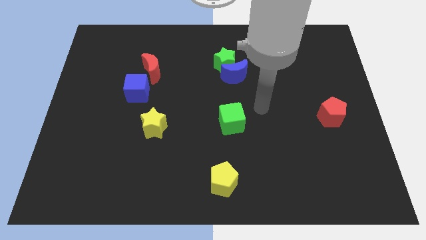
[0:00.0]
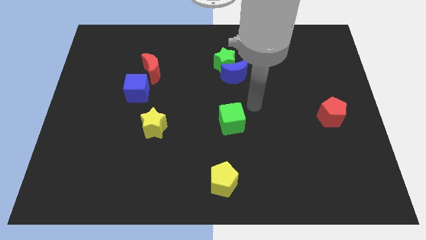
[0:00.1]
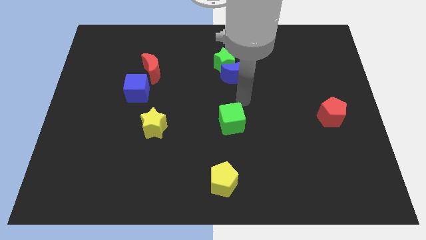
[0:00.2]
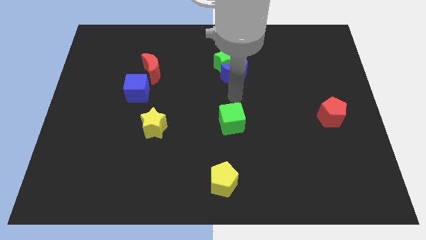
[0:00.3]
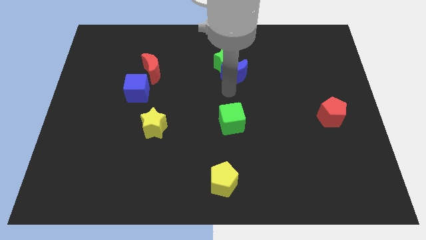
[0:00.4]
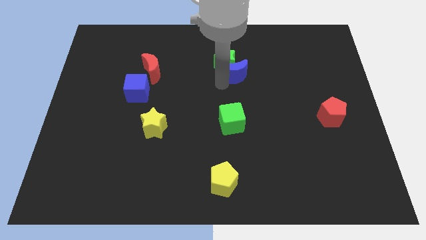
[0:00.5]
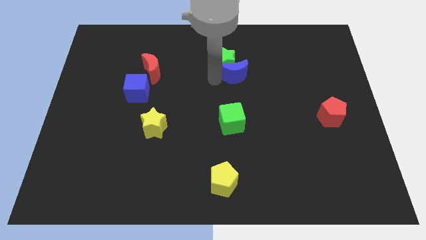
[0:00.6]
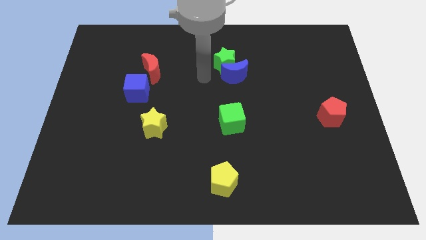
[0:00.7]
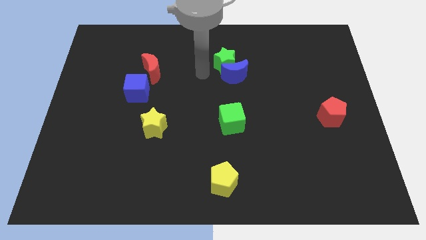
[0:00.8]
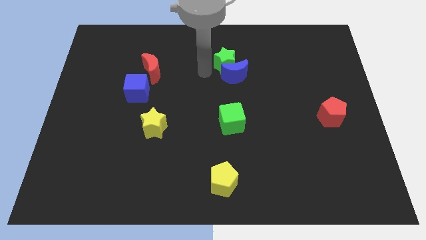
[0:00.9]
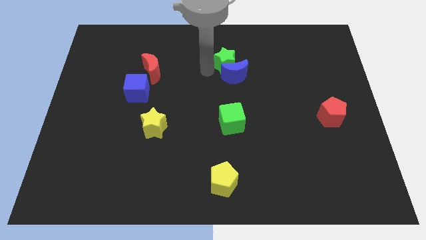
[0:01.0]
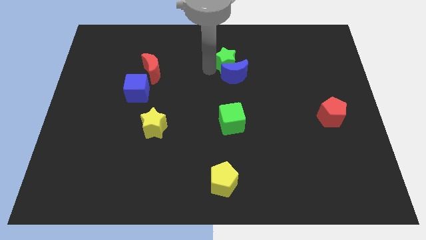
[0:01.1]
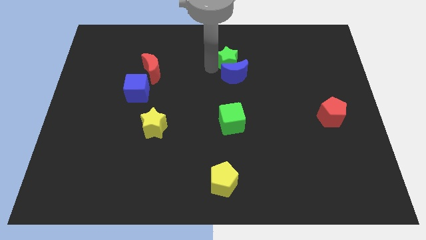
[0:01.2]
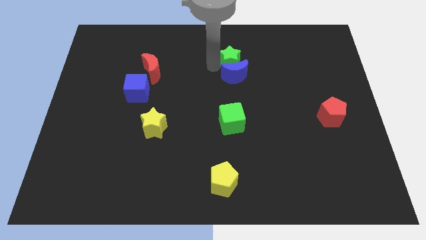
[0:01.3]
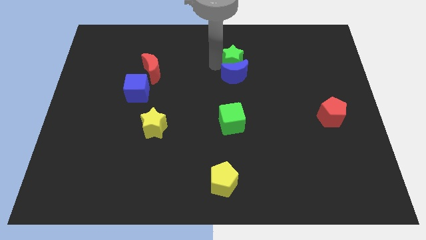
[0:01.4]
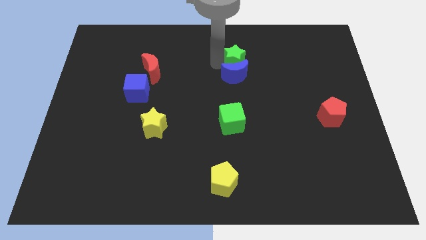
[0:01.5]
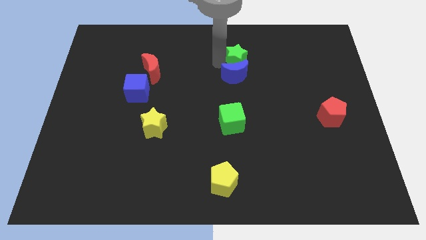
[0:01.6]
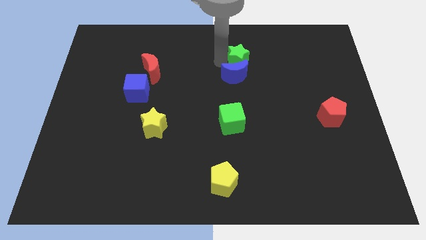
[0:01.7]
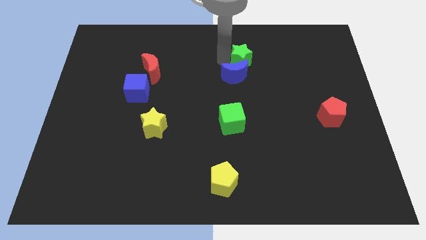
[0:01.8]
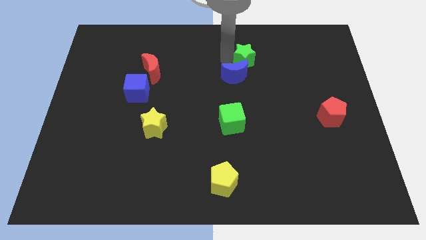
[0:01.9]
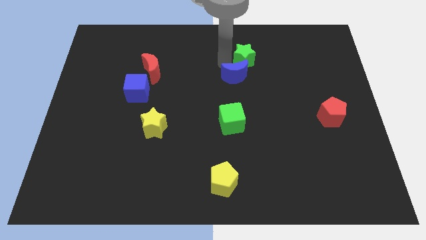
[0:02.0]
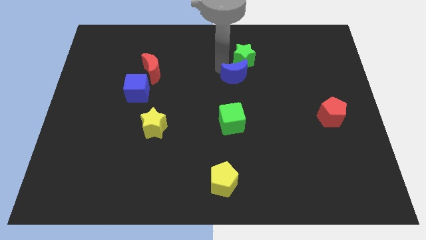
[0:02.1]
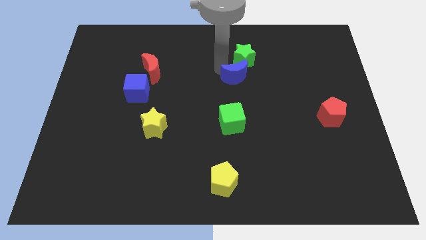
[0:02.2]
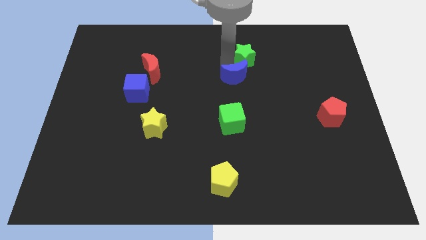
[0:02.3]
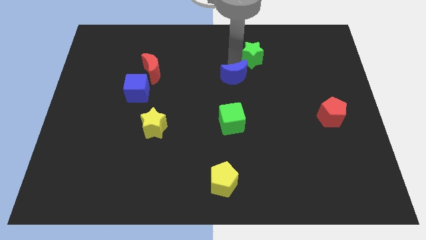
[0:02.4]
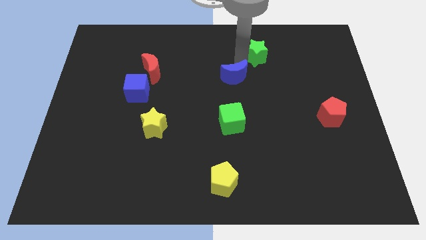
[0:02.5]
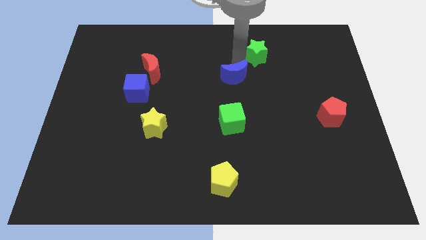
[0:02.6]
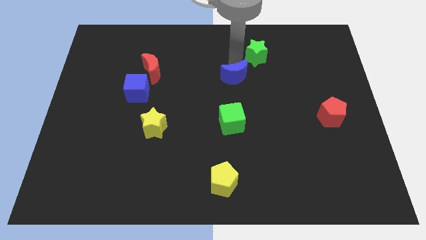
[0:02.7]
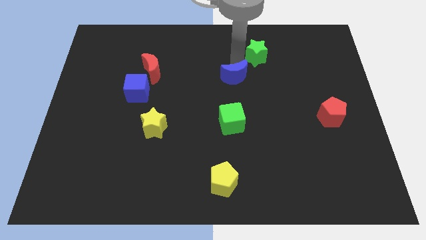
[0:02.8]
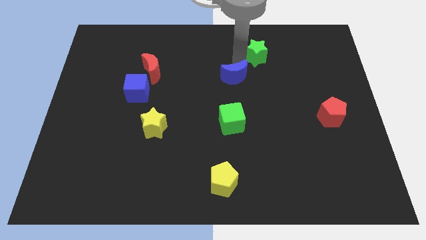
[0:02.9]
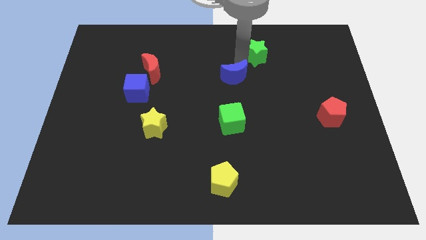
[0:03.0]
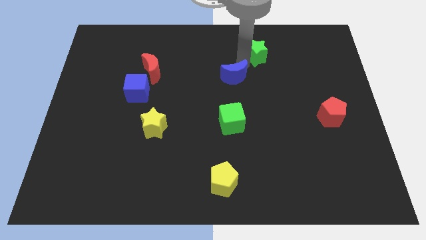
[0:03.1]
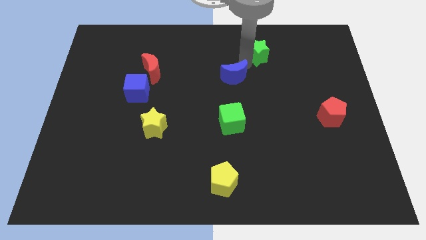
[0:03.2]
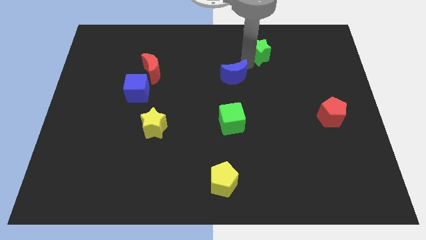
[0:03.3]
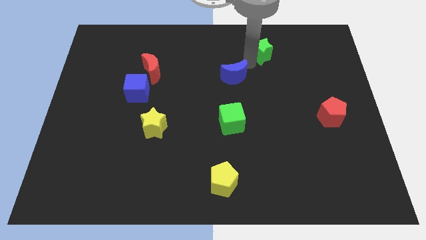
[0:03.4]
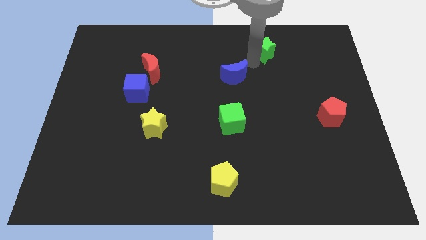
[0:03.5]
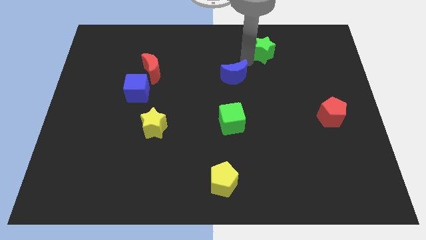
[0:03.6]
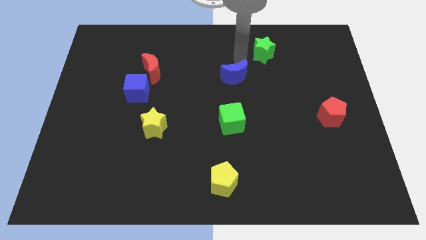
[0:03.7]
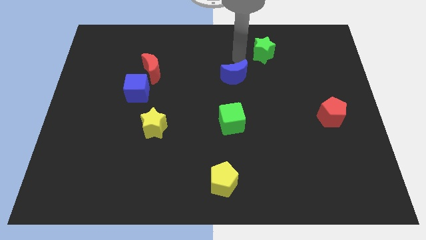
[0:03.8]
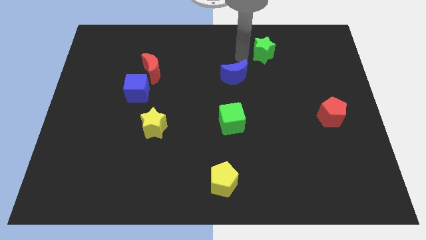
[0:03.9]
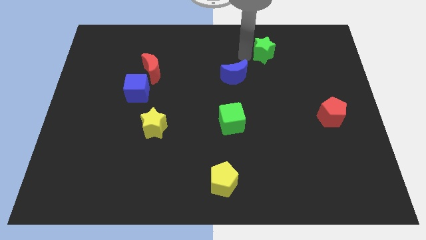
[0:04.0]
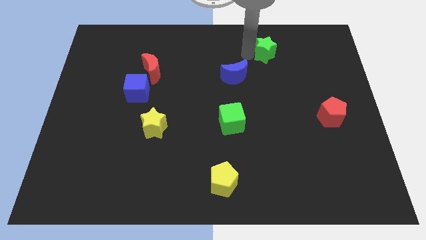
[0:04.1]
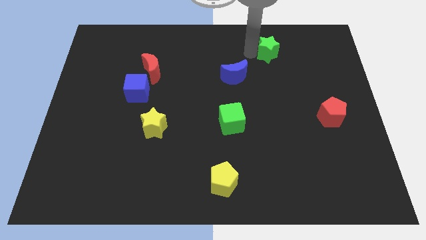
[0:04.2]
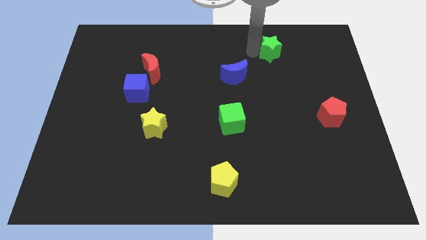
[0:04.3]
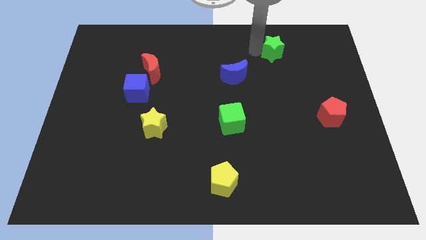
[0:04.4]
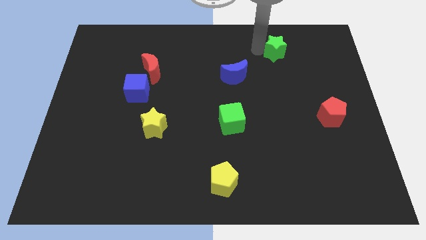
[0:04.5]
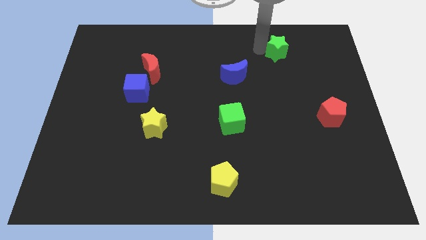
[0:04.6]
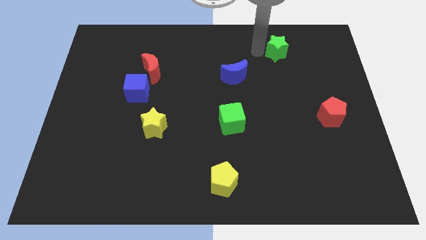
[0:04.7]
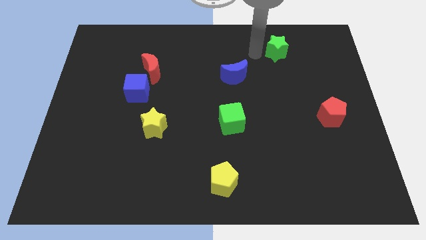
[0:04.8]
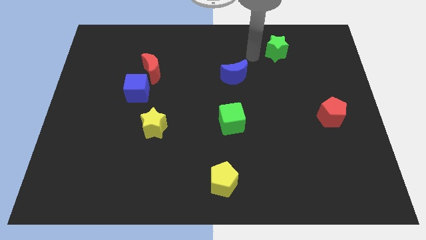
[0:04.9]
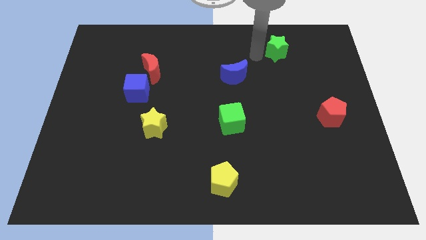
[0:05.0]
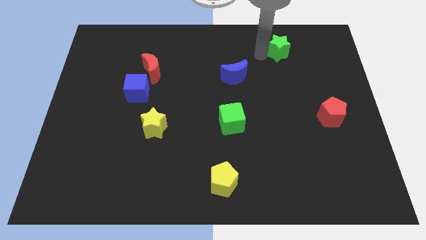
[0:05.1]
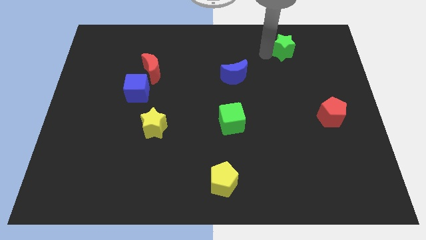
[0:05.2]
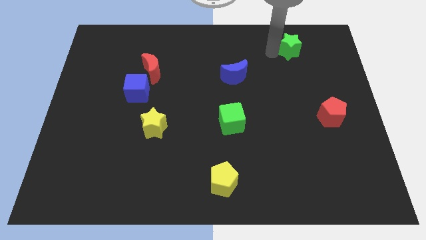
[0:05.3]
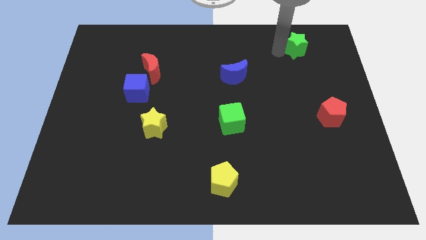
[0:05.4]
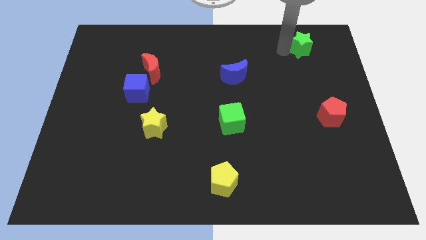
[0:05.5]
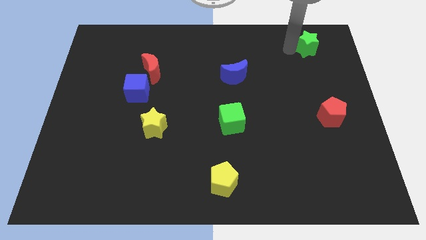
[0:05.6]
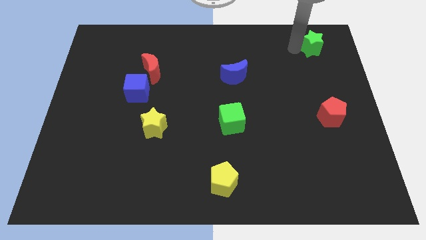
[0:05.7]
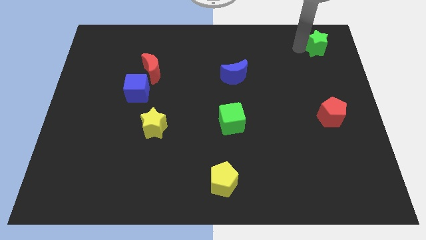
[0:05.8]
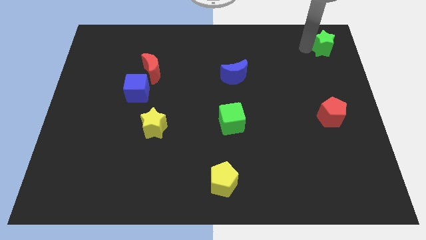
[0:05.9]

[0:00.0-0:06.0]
push the green star to the top right of the board

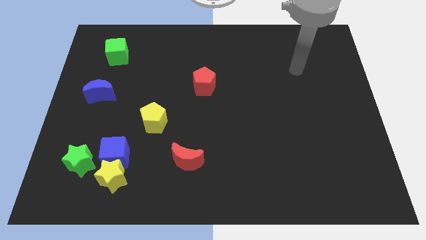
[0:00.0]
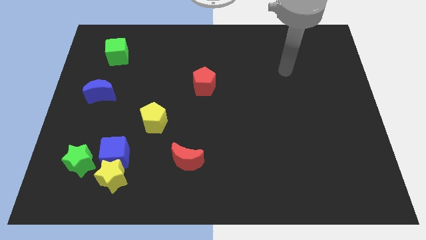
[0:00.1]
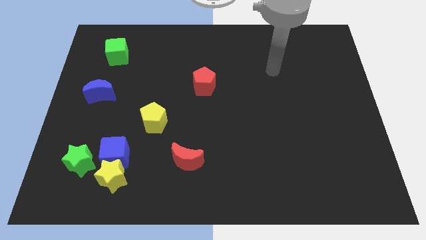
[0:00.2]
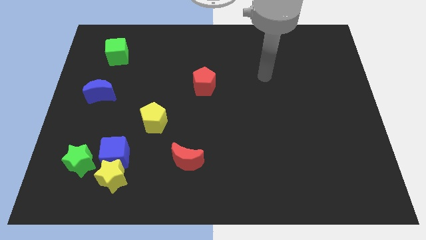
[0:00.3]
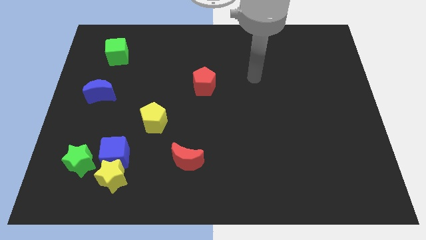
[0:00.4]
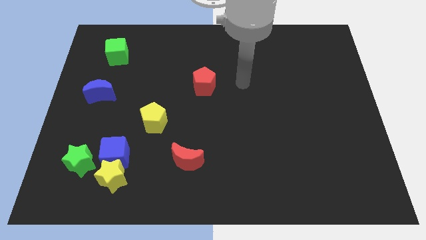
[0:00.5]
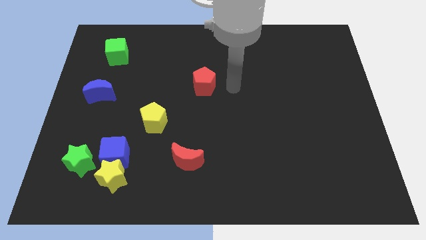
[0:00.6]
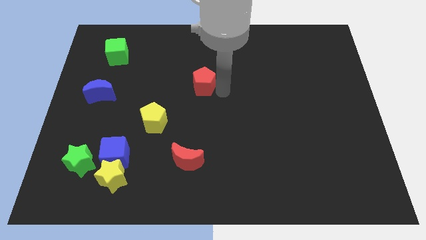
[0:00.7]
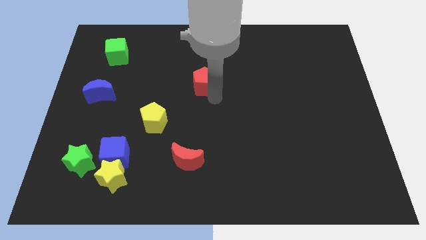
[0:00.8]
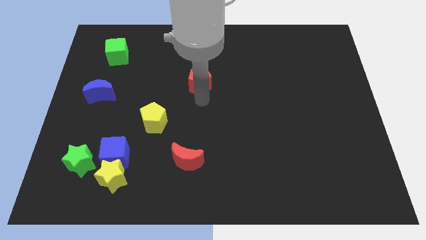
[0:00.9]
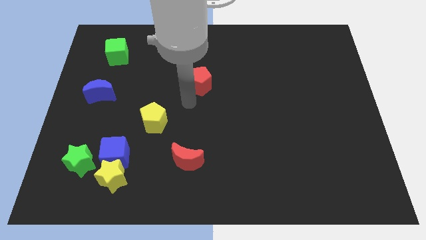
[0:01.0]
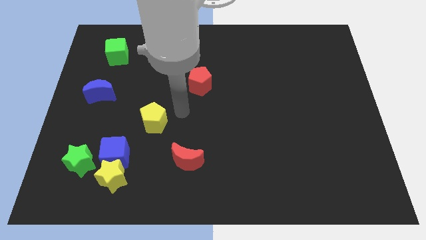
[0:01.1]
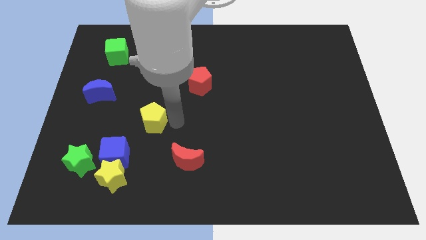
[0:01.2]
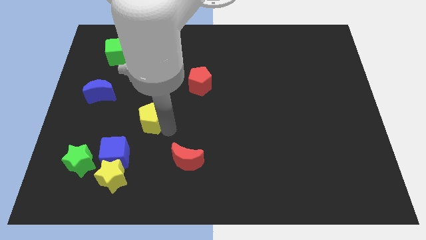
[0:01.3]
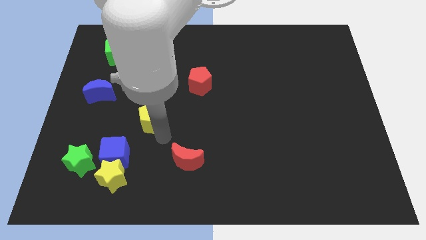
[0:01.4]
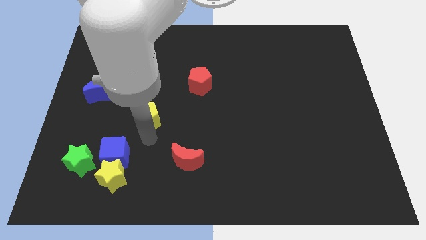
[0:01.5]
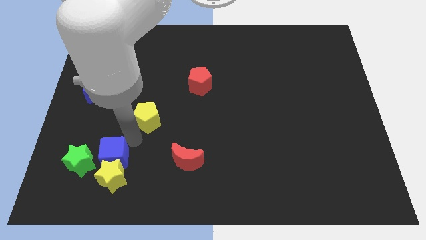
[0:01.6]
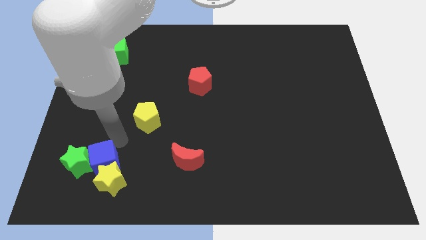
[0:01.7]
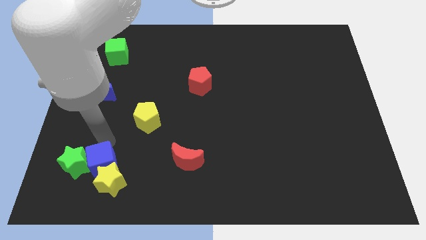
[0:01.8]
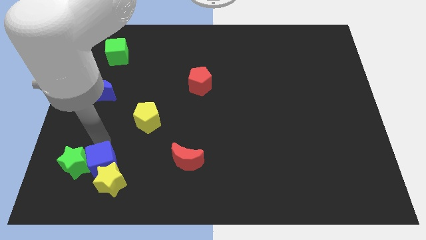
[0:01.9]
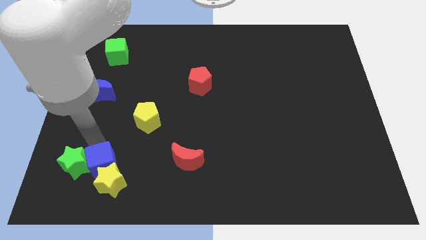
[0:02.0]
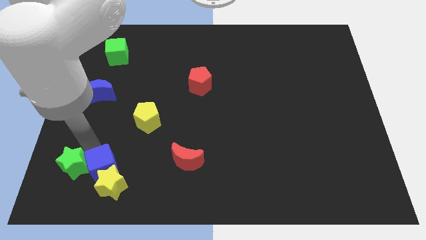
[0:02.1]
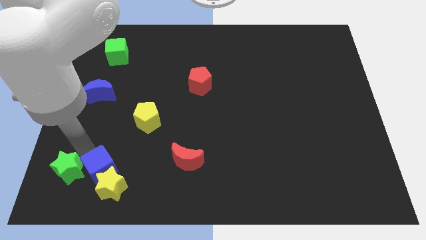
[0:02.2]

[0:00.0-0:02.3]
push the green star to the bottom left
